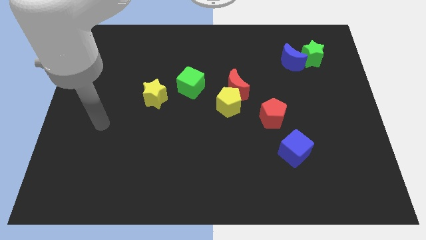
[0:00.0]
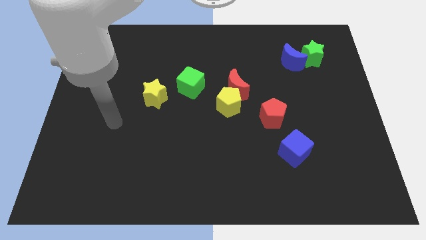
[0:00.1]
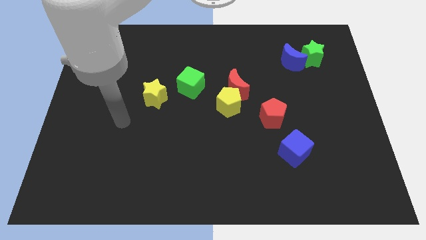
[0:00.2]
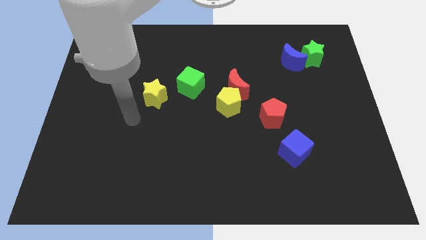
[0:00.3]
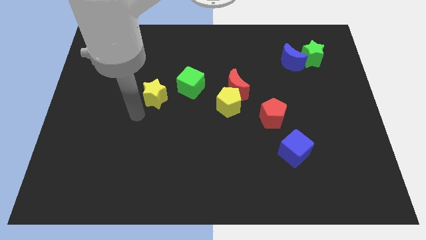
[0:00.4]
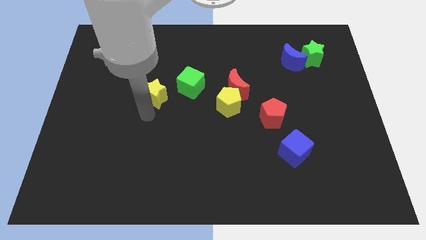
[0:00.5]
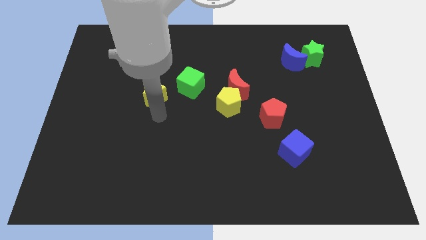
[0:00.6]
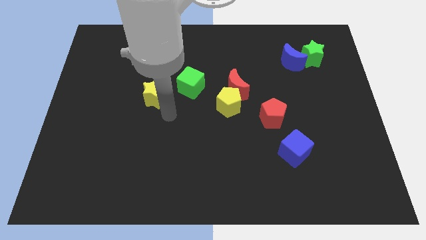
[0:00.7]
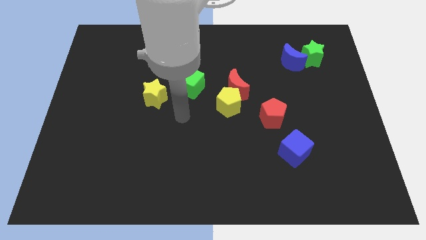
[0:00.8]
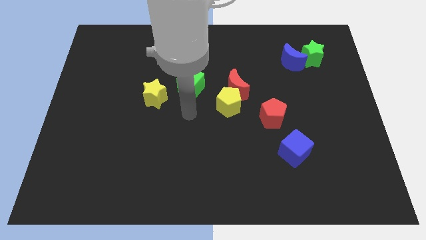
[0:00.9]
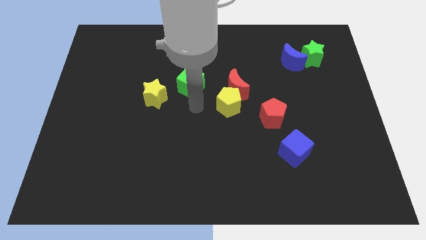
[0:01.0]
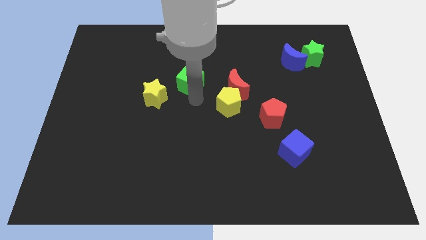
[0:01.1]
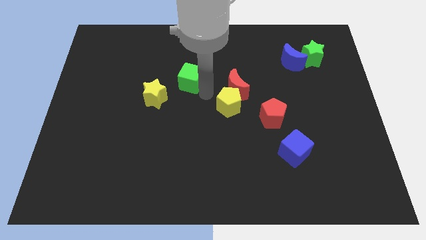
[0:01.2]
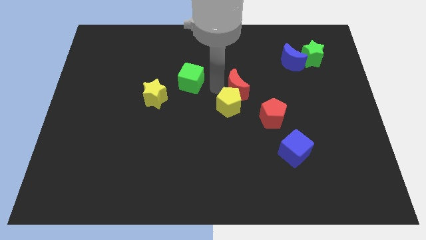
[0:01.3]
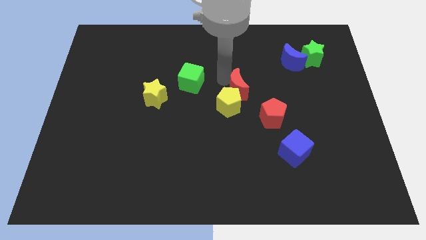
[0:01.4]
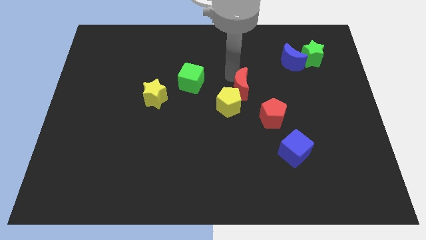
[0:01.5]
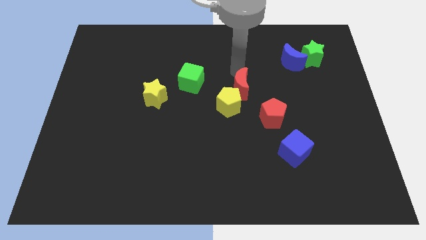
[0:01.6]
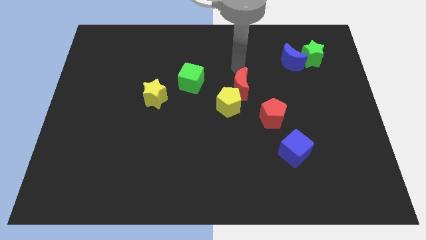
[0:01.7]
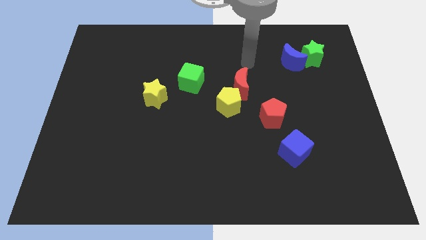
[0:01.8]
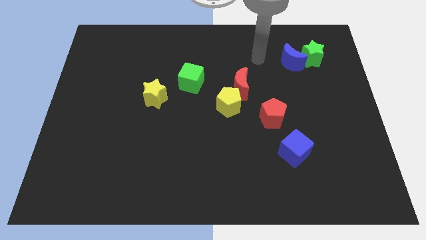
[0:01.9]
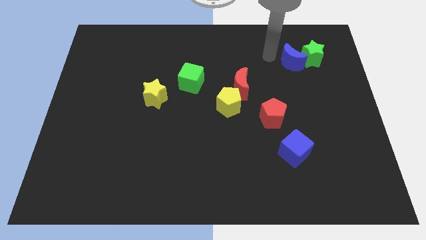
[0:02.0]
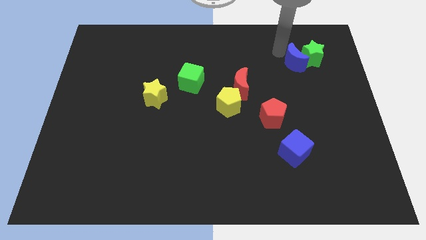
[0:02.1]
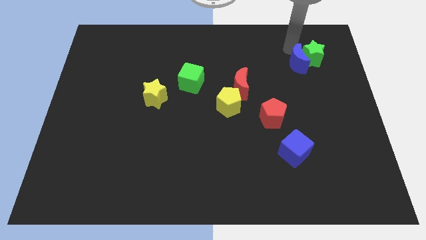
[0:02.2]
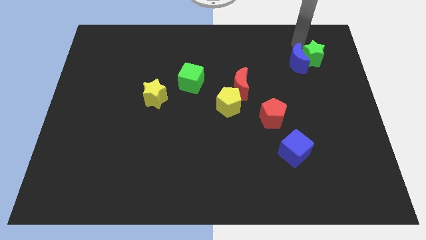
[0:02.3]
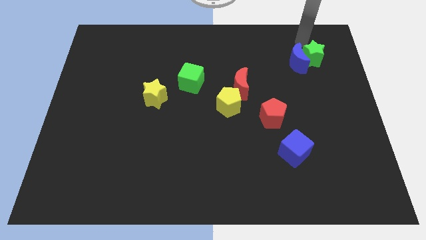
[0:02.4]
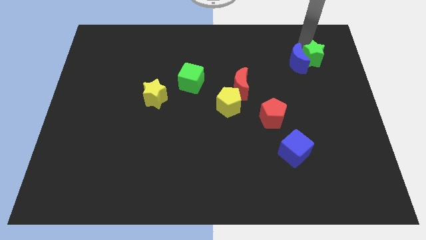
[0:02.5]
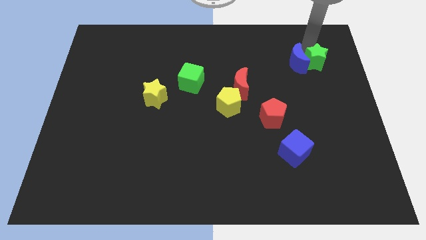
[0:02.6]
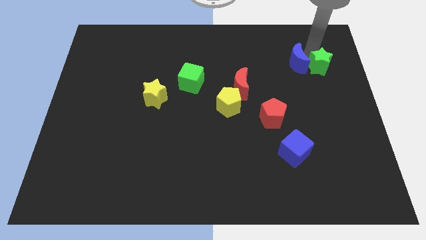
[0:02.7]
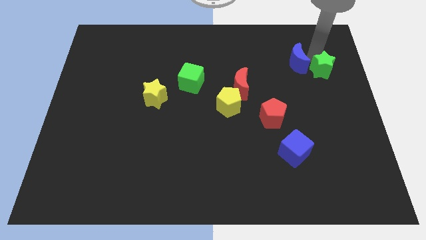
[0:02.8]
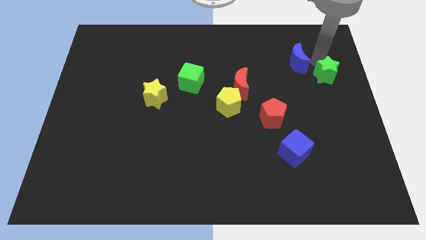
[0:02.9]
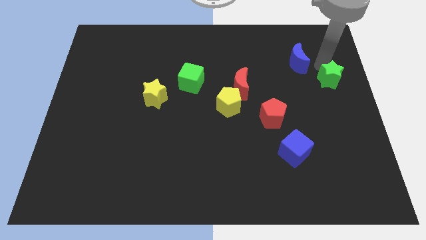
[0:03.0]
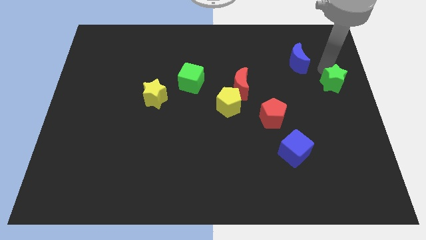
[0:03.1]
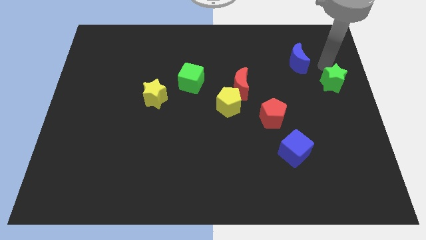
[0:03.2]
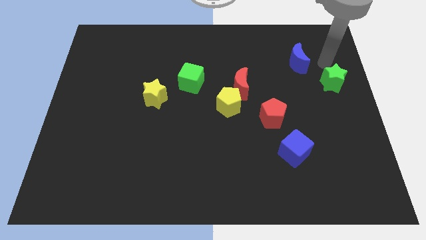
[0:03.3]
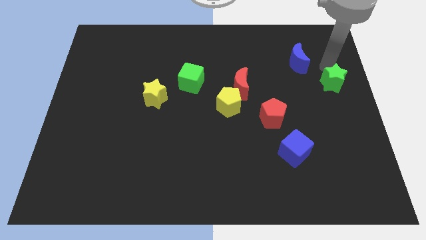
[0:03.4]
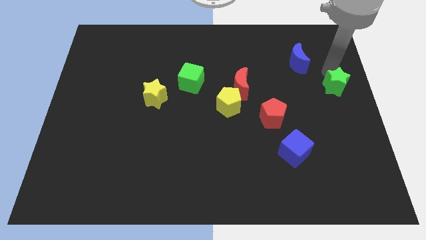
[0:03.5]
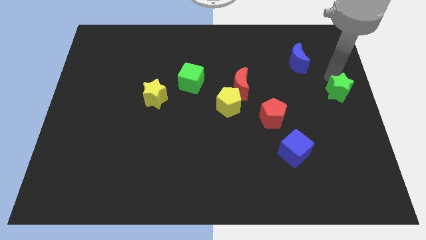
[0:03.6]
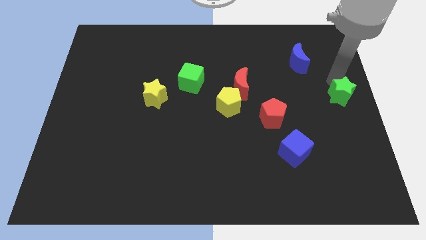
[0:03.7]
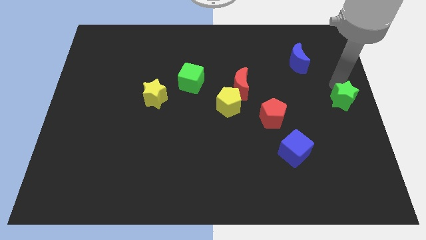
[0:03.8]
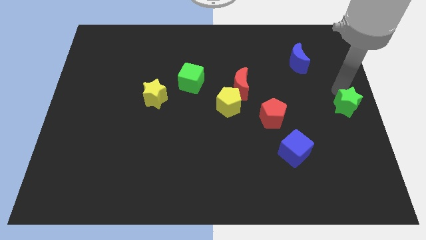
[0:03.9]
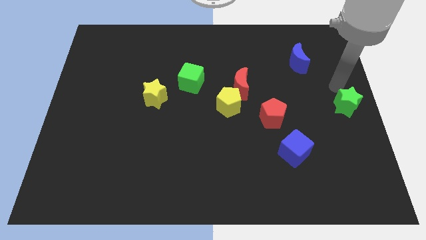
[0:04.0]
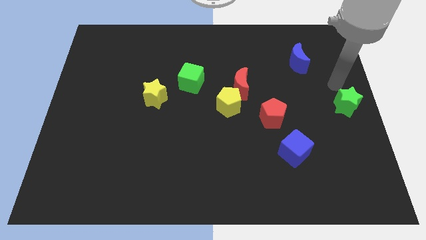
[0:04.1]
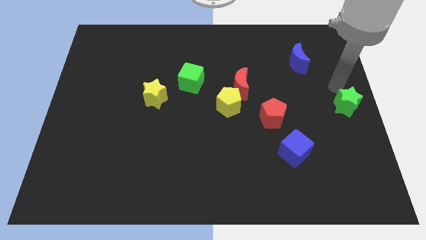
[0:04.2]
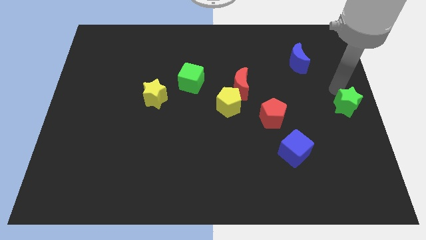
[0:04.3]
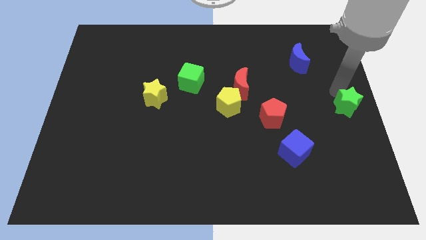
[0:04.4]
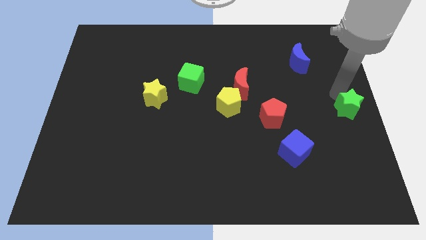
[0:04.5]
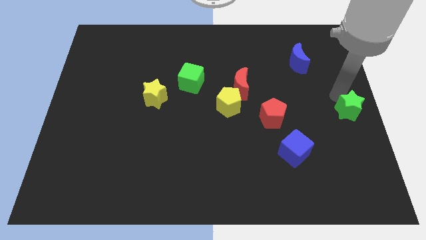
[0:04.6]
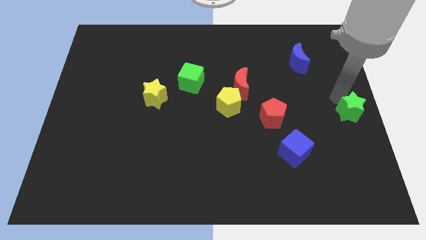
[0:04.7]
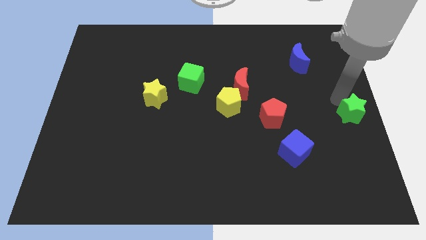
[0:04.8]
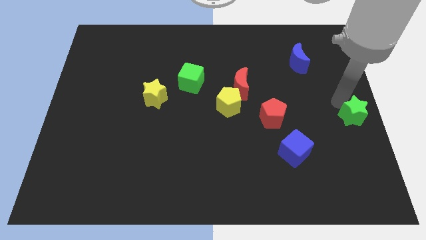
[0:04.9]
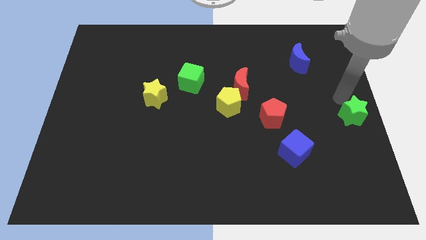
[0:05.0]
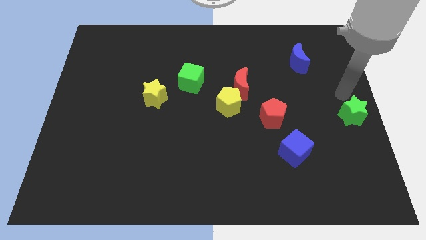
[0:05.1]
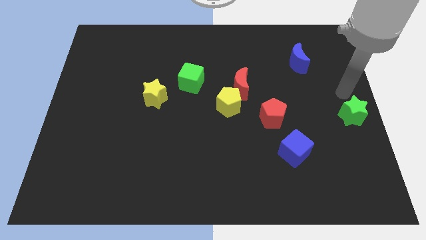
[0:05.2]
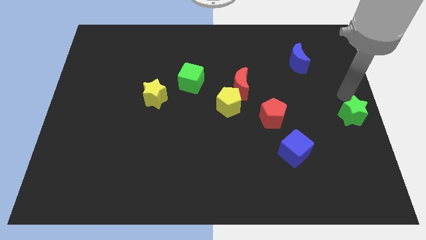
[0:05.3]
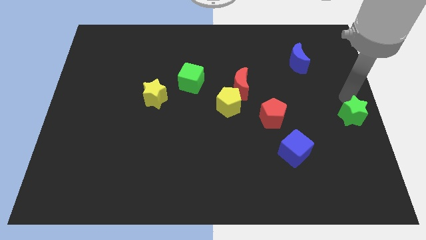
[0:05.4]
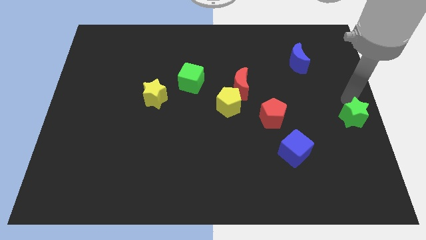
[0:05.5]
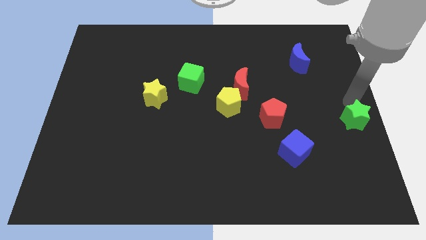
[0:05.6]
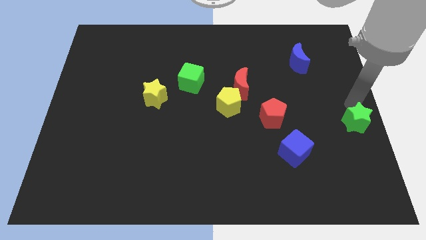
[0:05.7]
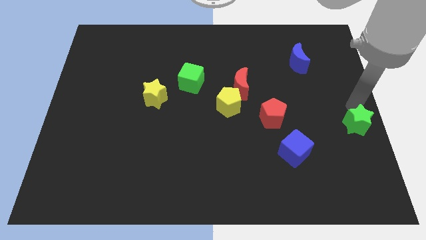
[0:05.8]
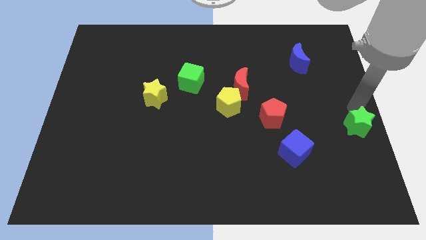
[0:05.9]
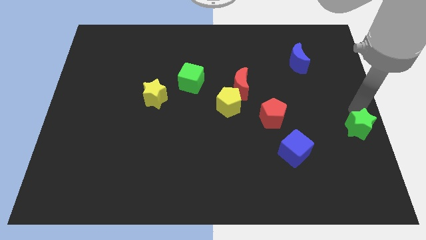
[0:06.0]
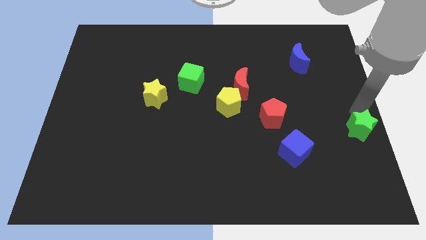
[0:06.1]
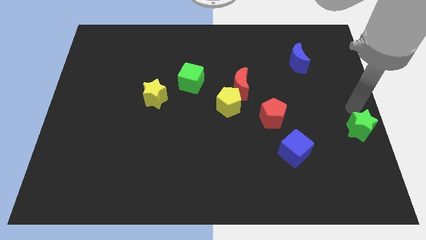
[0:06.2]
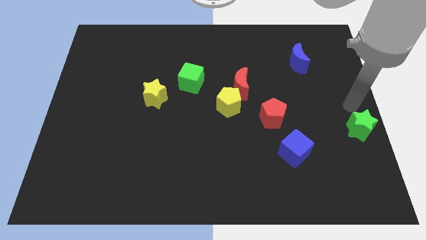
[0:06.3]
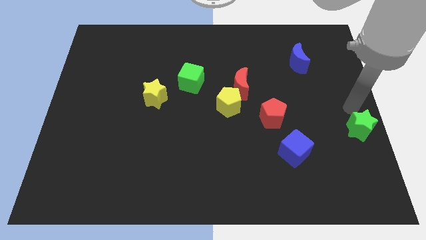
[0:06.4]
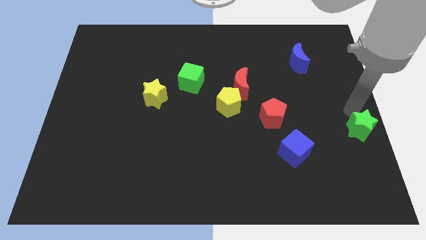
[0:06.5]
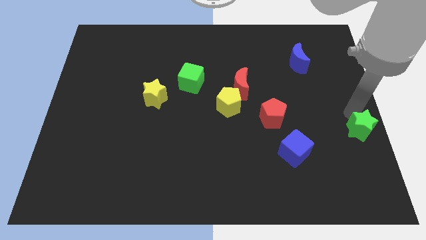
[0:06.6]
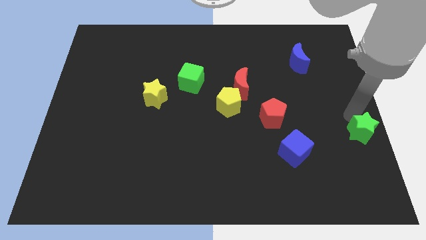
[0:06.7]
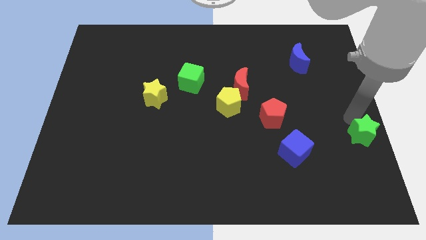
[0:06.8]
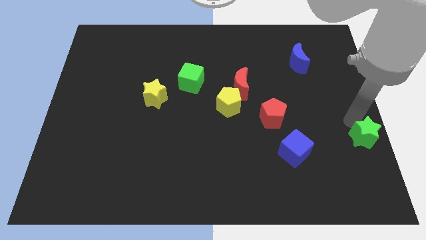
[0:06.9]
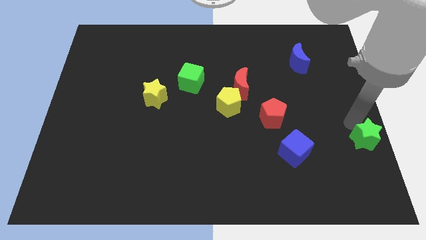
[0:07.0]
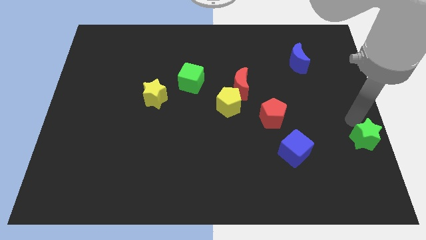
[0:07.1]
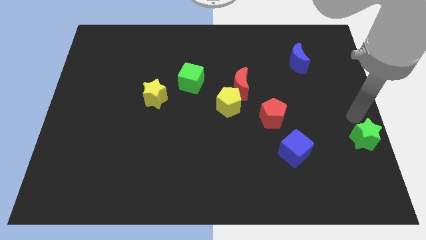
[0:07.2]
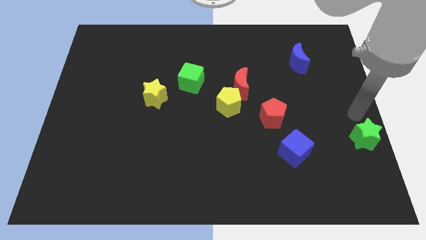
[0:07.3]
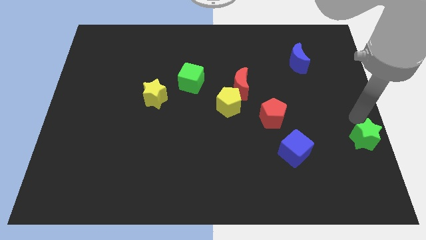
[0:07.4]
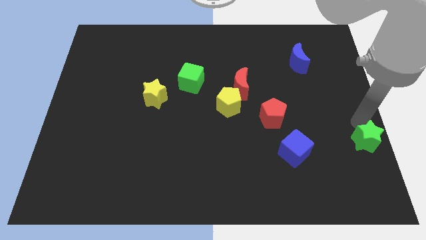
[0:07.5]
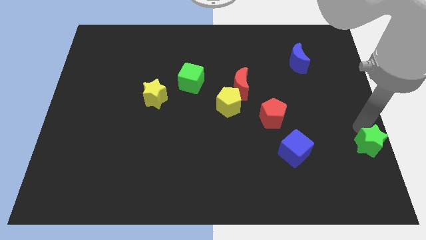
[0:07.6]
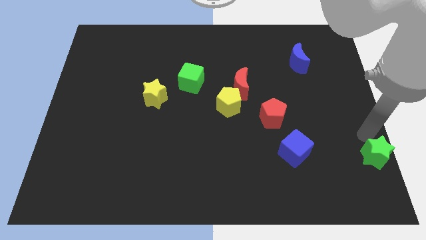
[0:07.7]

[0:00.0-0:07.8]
push the green star to the bottom right
